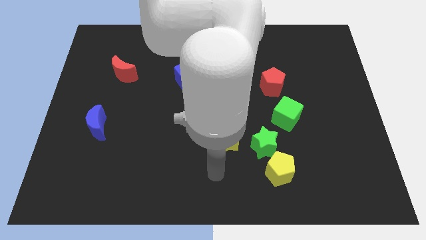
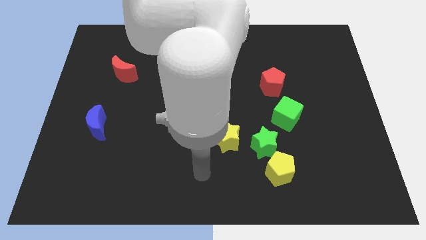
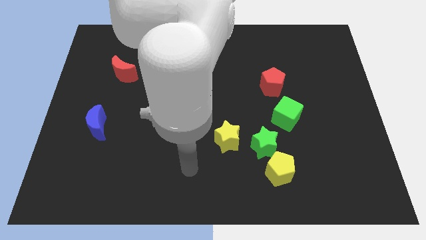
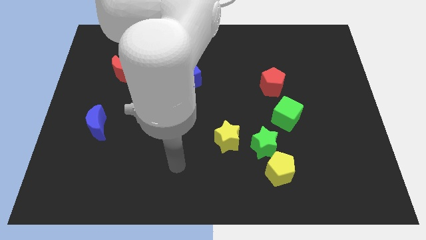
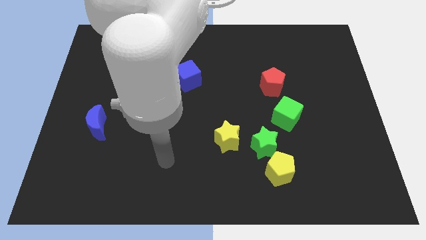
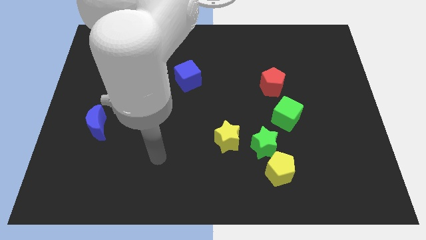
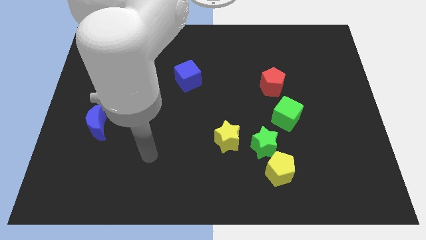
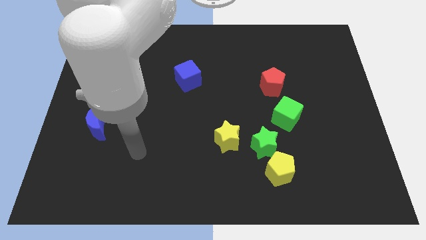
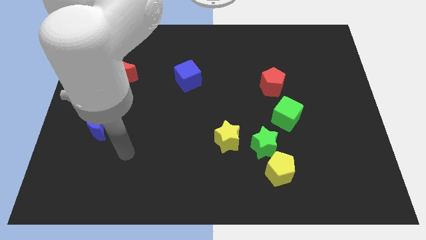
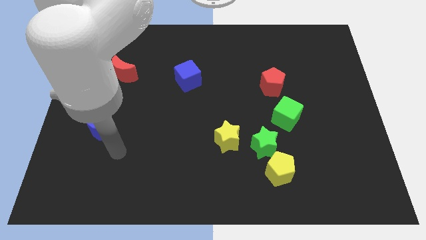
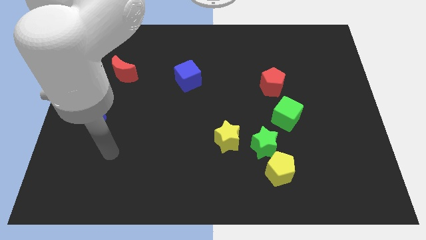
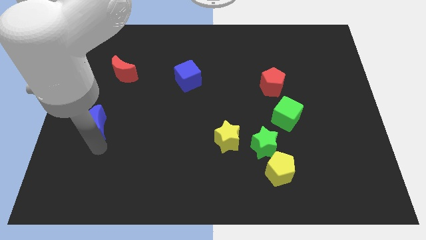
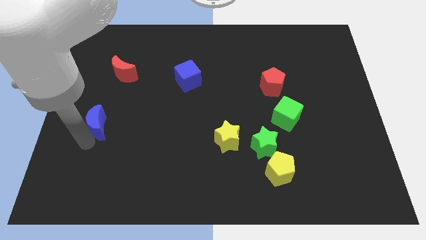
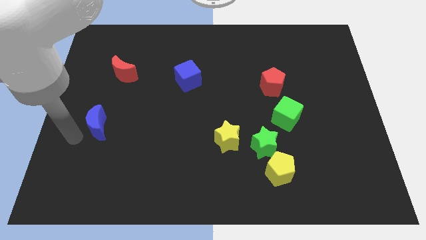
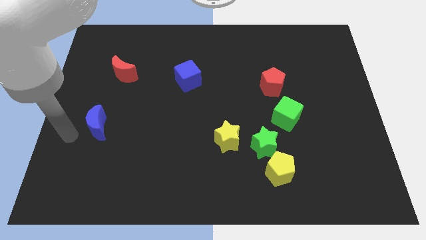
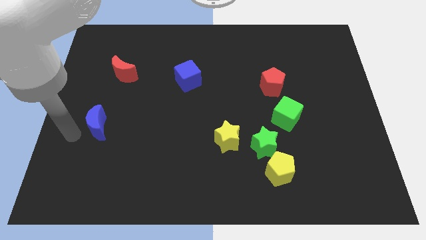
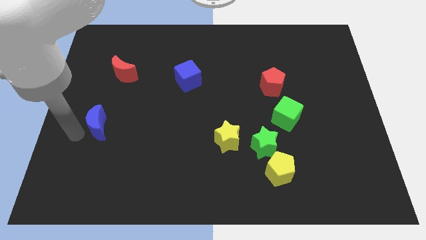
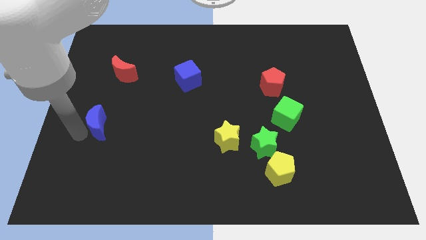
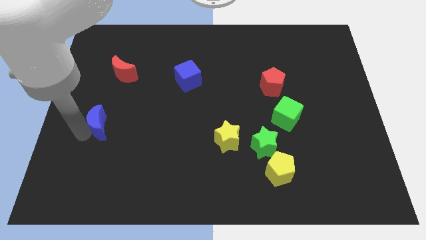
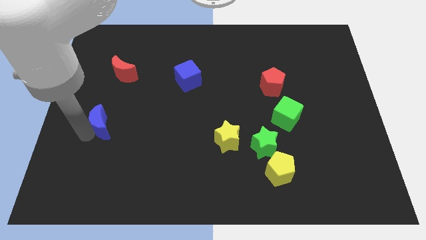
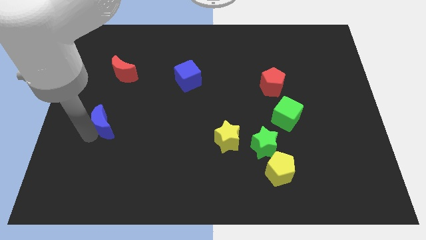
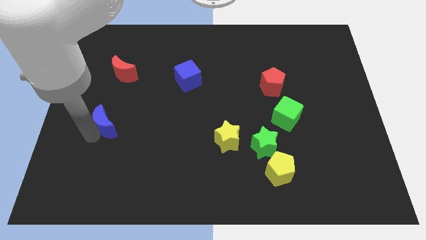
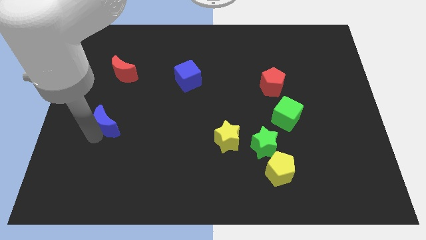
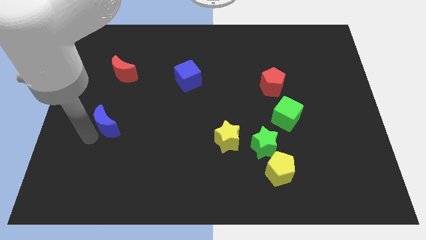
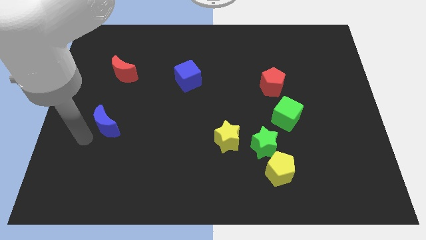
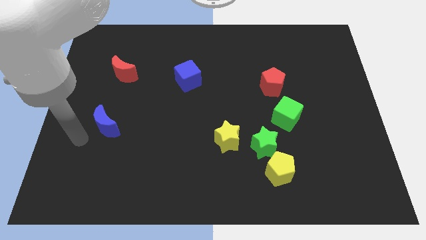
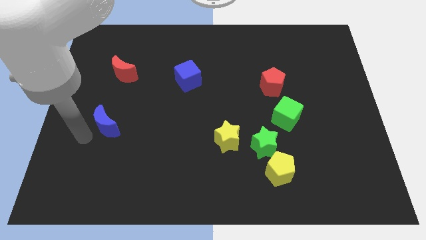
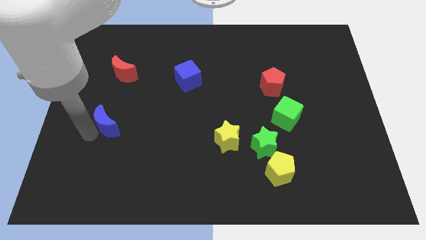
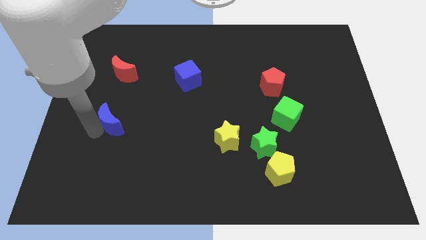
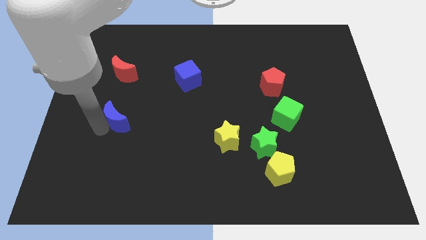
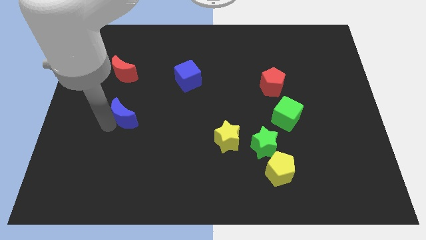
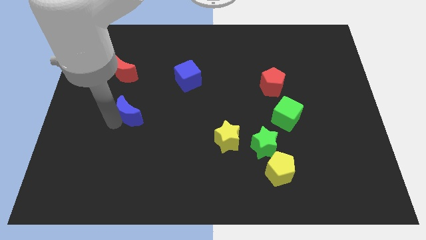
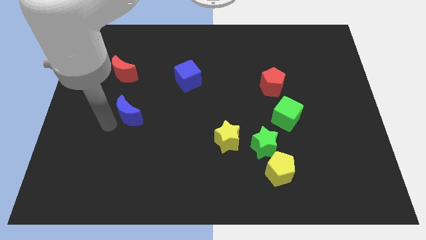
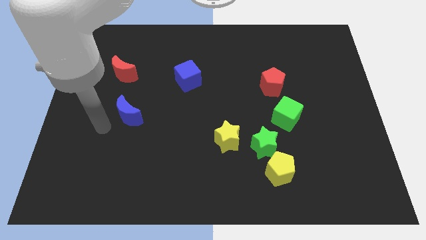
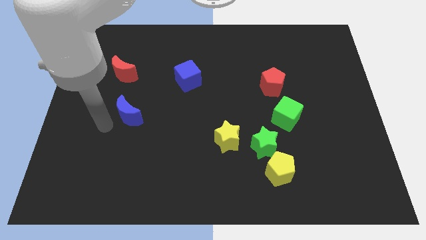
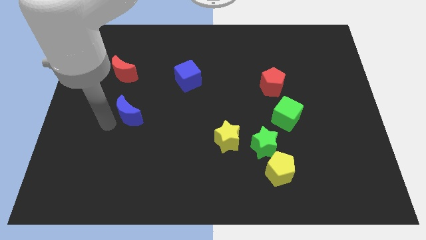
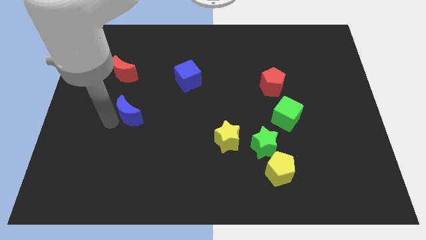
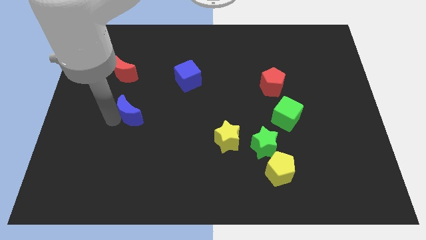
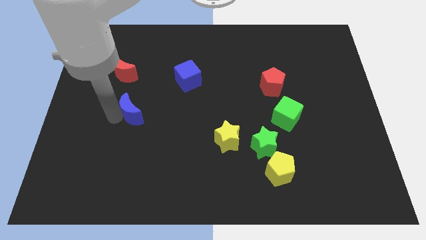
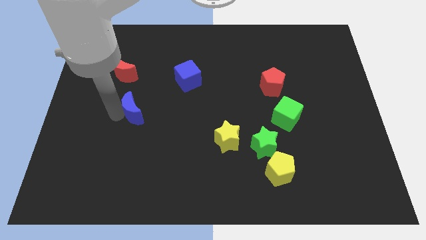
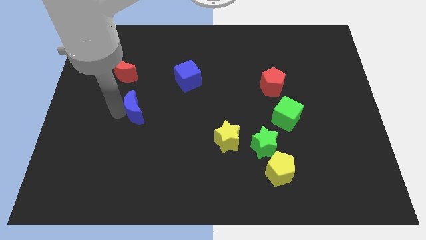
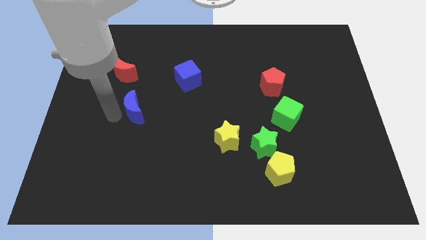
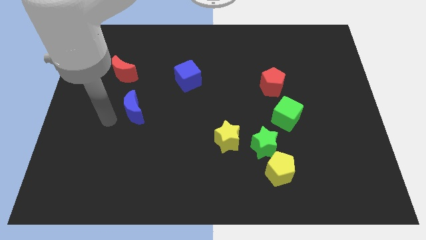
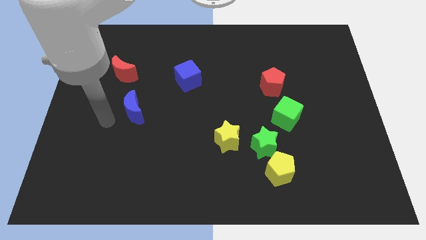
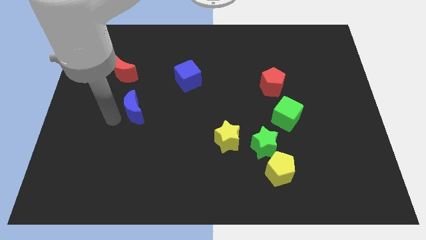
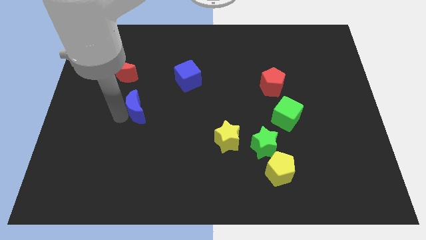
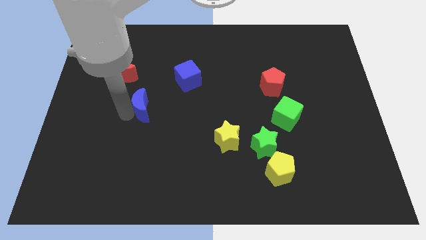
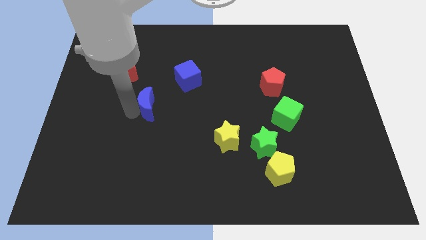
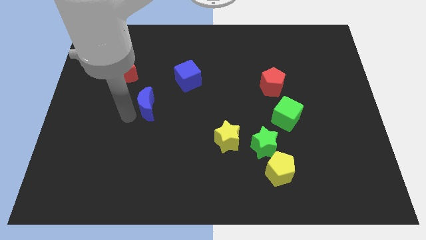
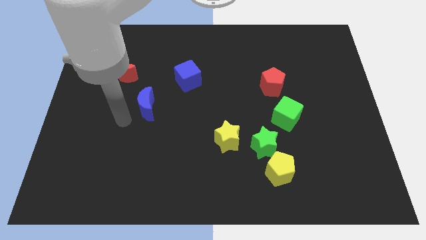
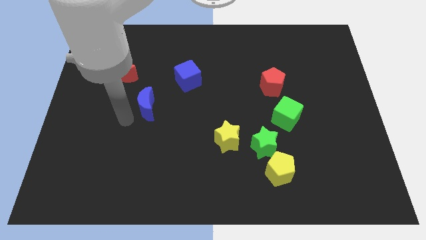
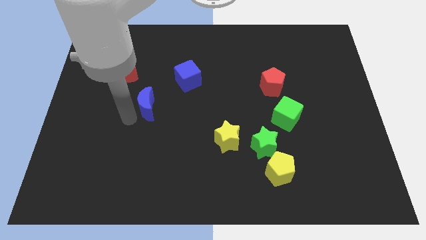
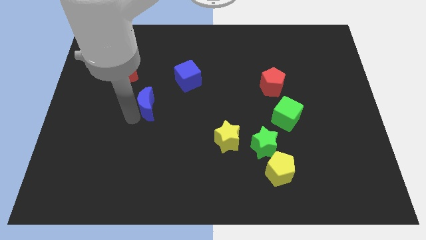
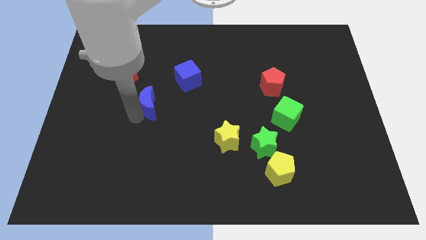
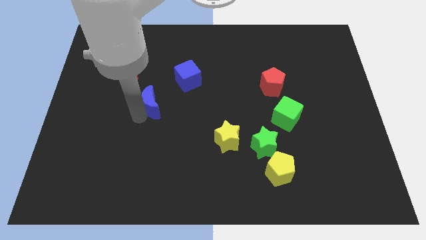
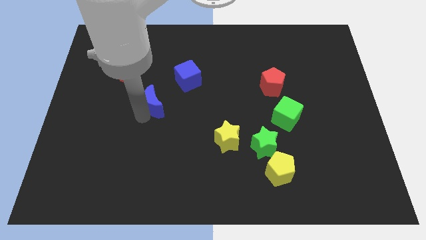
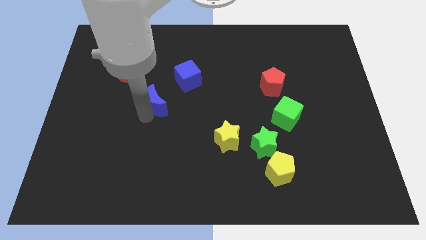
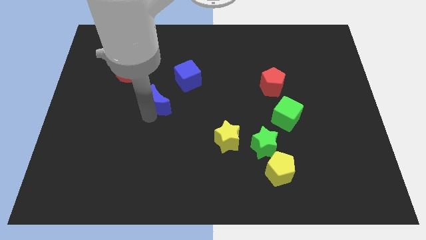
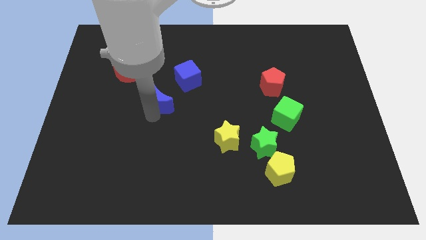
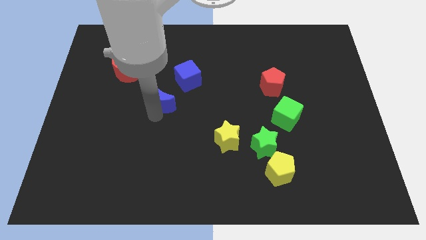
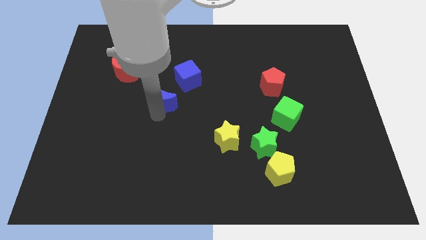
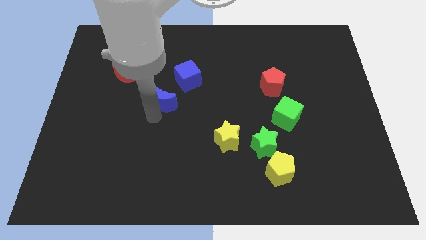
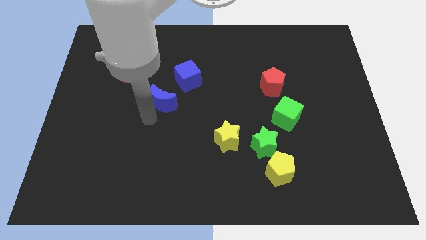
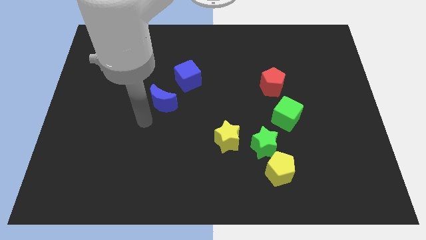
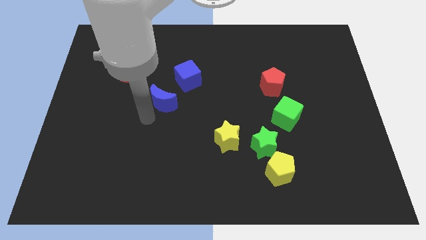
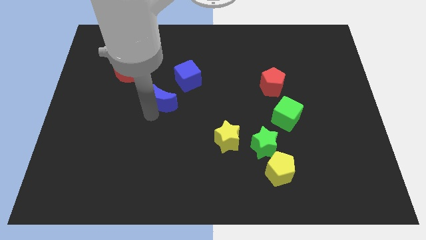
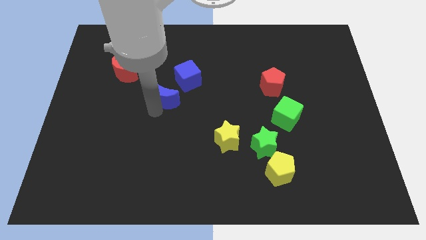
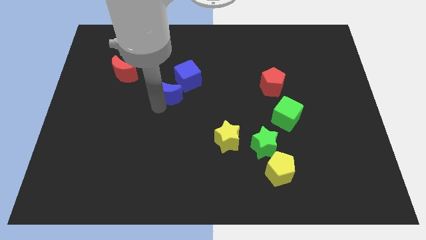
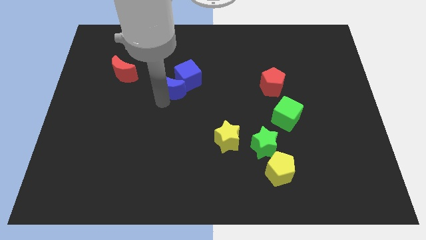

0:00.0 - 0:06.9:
put the blue moon close to the blue cube

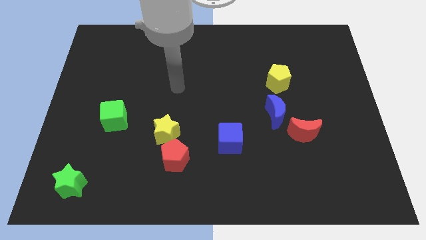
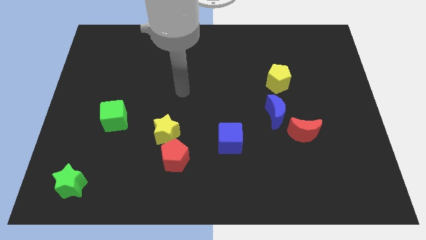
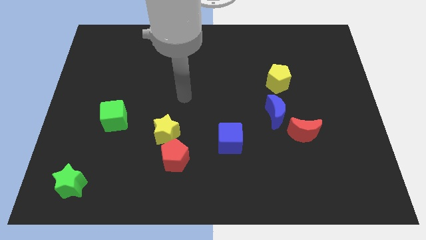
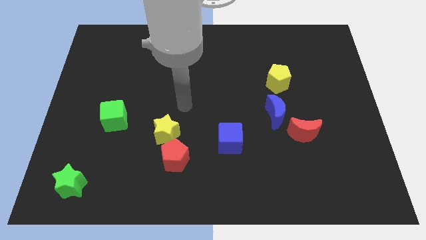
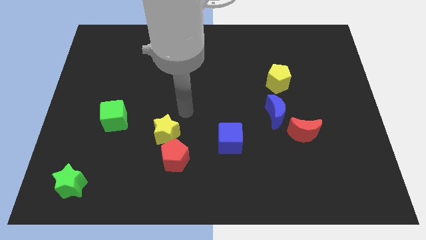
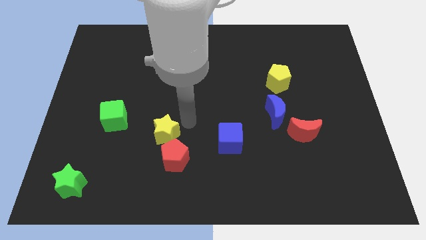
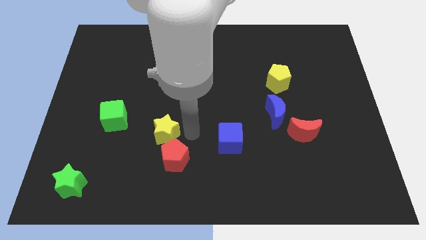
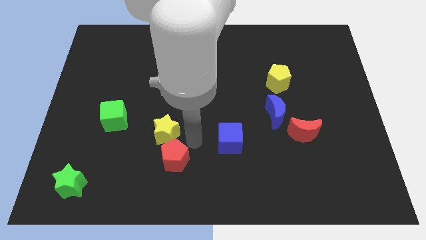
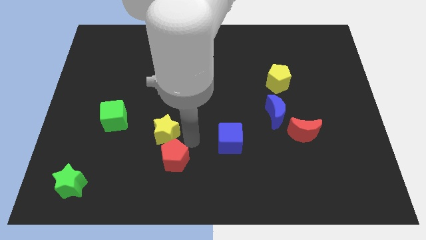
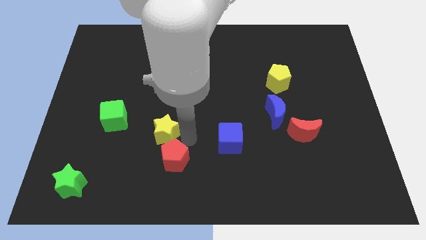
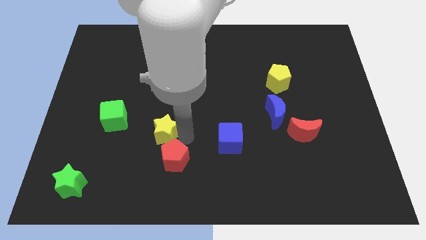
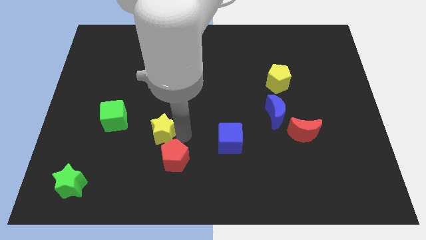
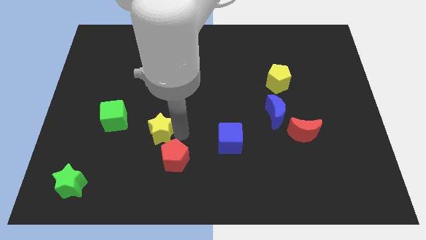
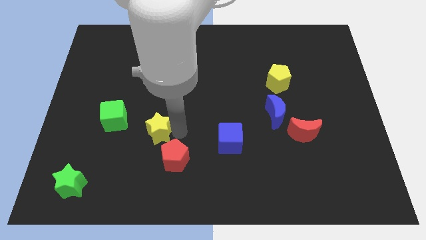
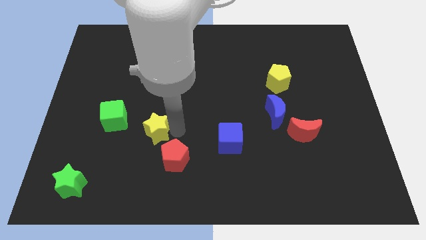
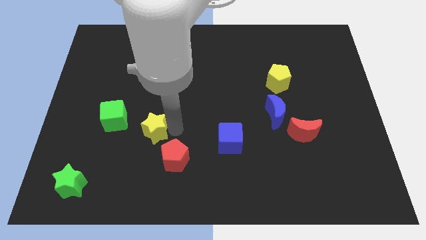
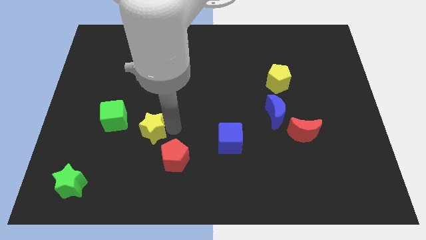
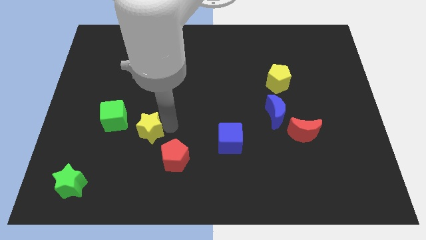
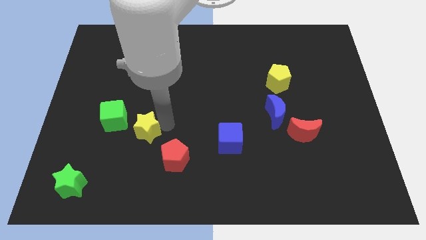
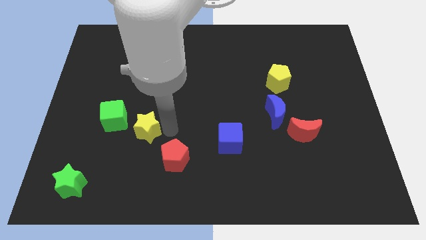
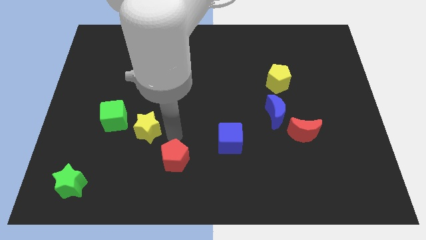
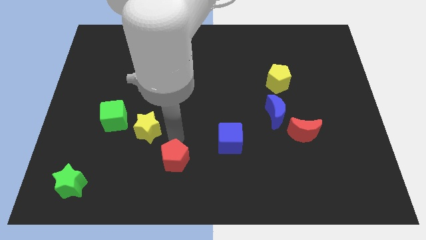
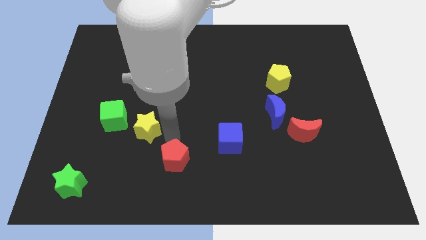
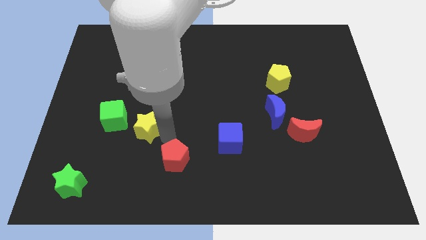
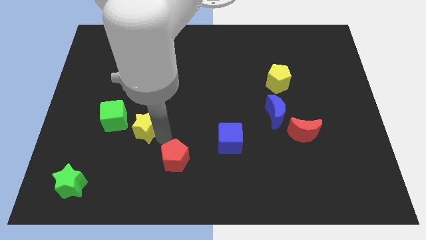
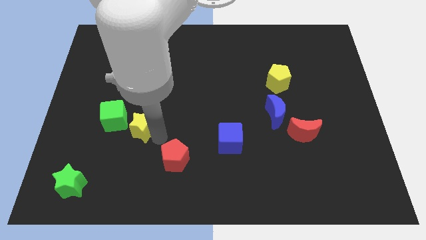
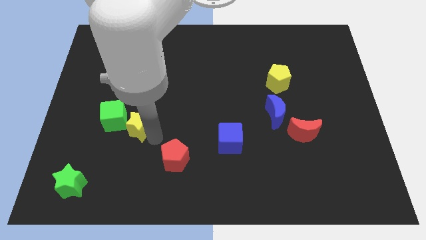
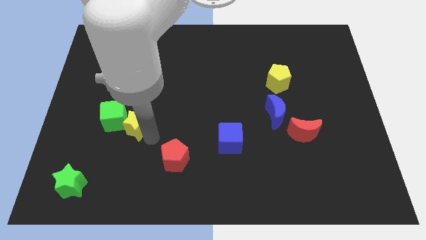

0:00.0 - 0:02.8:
put the yellow star towards the green cube
